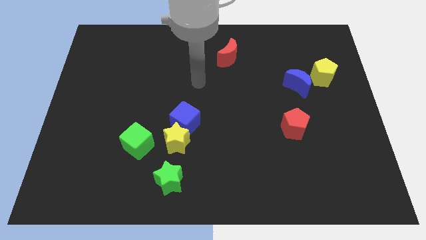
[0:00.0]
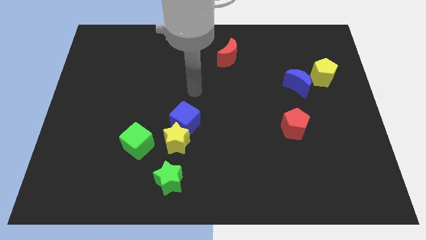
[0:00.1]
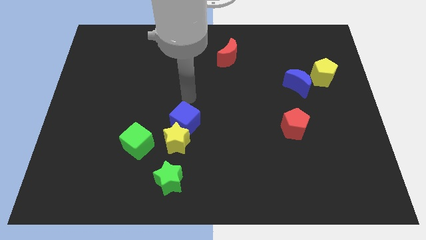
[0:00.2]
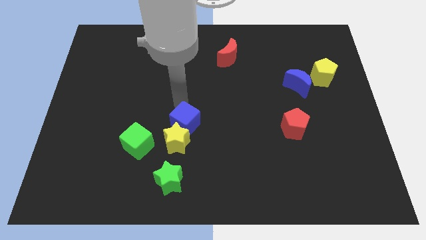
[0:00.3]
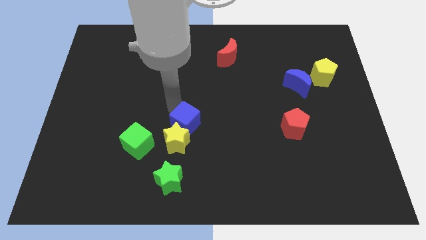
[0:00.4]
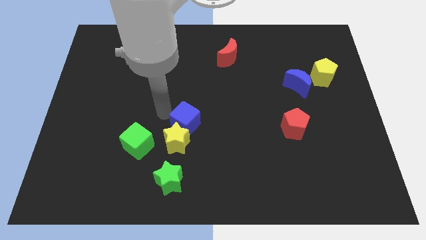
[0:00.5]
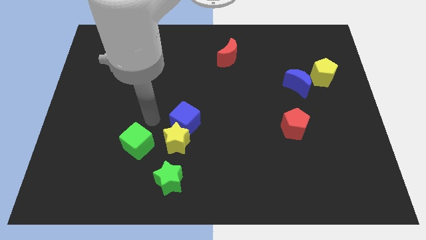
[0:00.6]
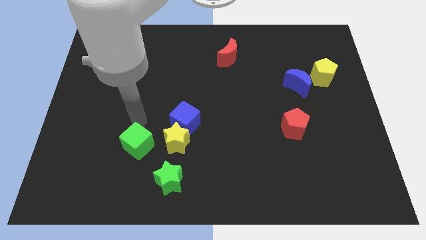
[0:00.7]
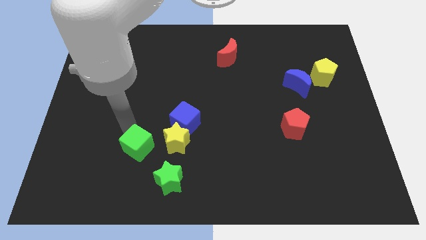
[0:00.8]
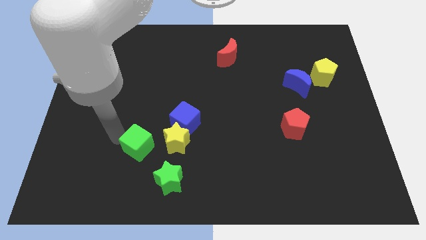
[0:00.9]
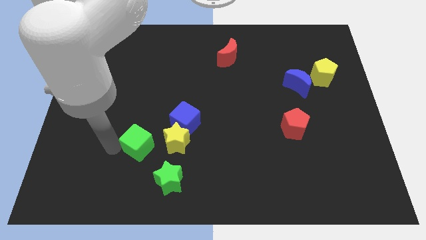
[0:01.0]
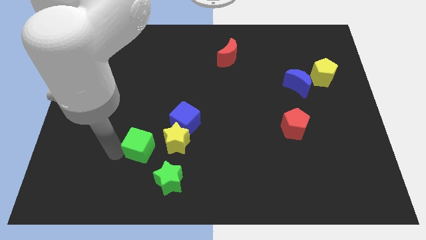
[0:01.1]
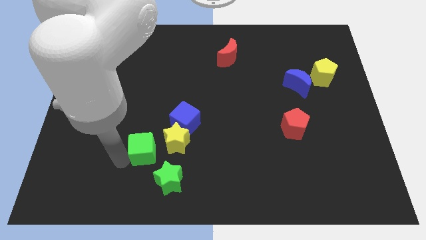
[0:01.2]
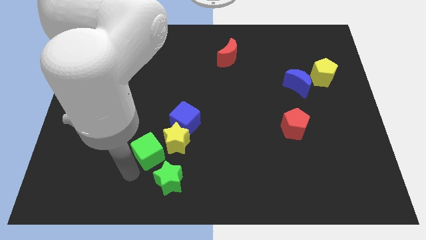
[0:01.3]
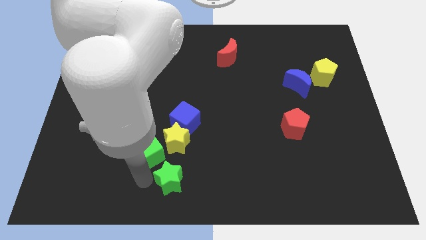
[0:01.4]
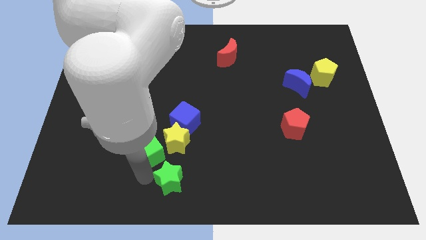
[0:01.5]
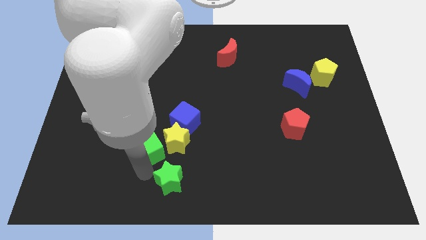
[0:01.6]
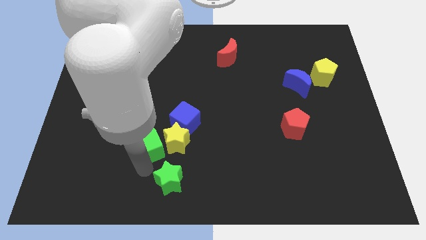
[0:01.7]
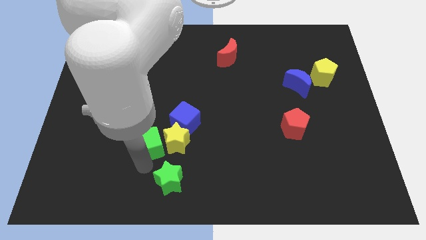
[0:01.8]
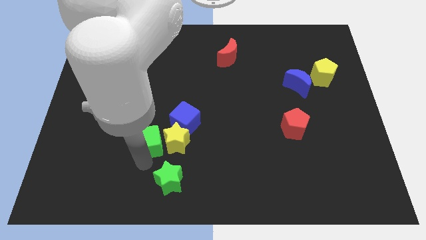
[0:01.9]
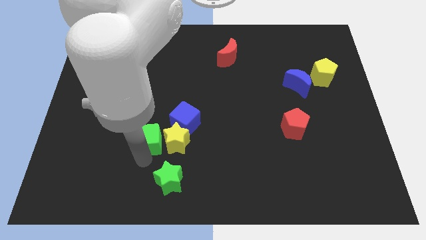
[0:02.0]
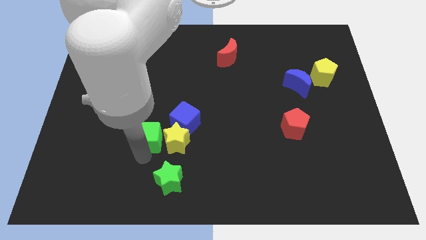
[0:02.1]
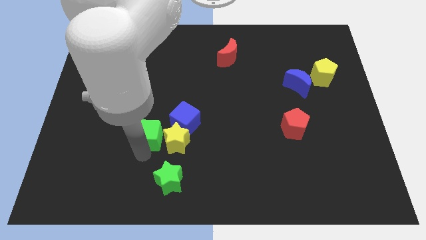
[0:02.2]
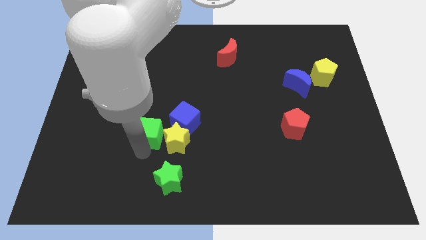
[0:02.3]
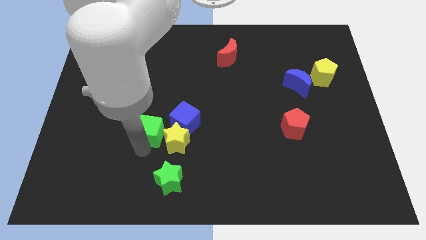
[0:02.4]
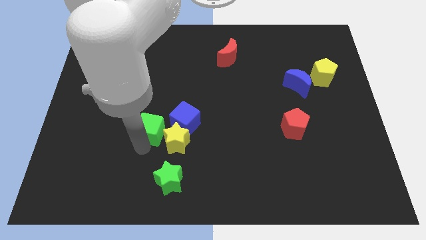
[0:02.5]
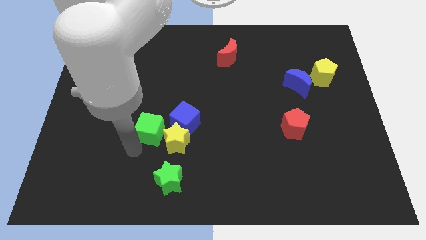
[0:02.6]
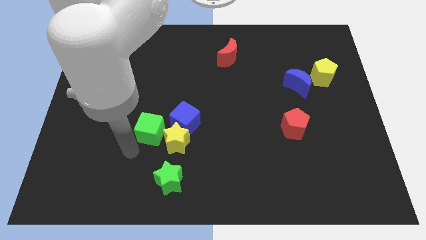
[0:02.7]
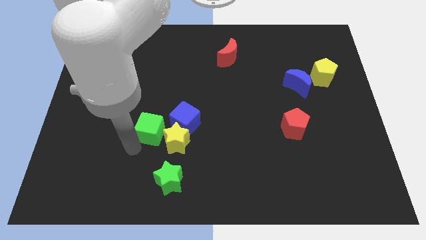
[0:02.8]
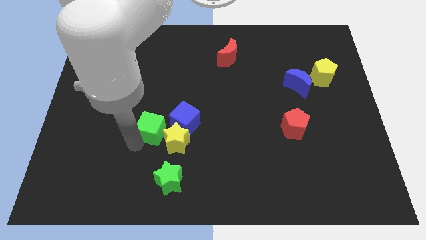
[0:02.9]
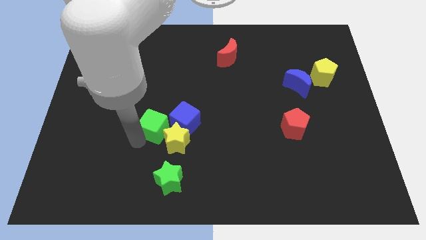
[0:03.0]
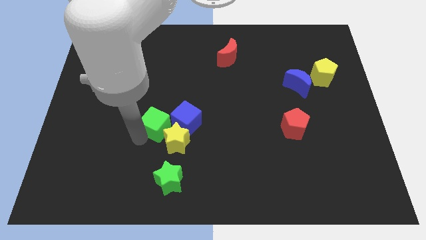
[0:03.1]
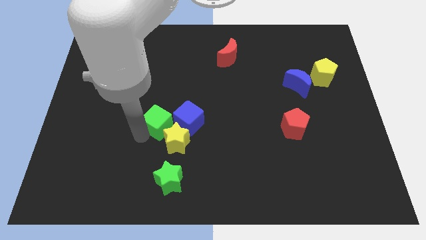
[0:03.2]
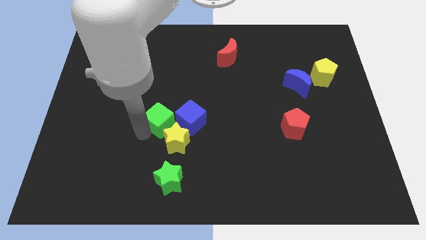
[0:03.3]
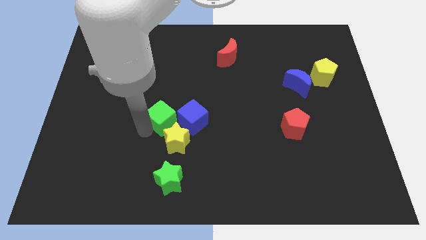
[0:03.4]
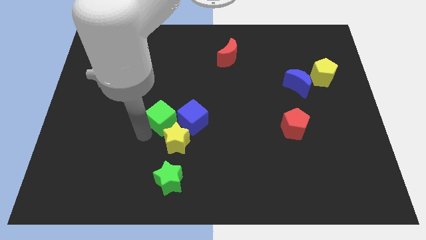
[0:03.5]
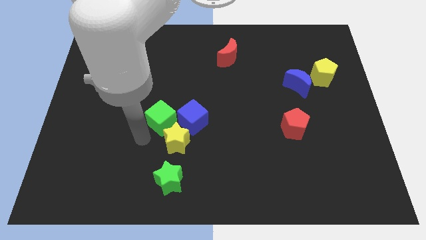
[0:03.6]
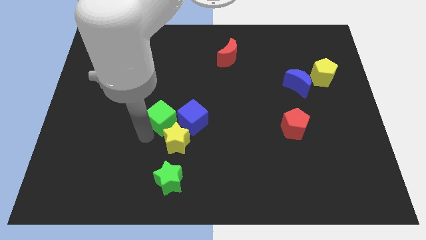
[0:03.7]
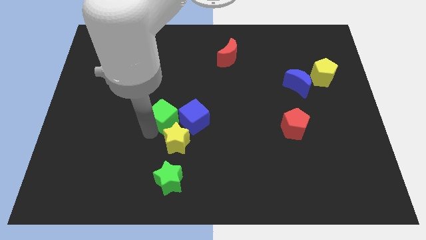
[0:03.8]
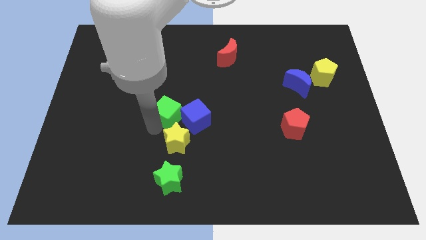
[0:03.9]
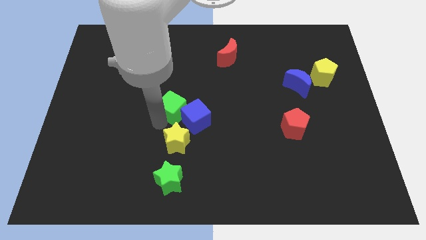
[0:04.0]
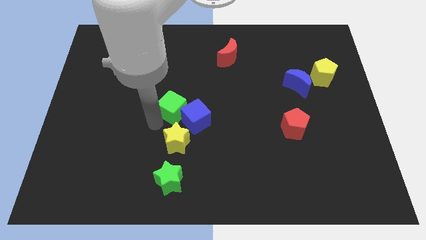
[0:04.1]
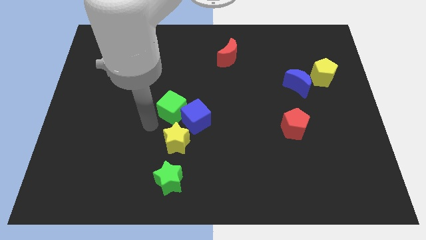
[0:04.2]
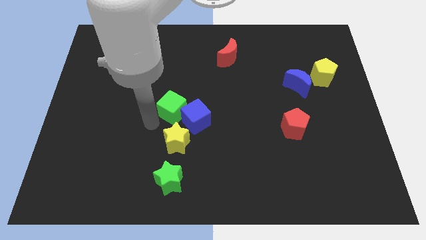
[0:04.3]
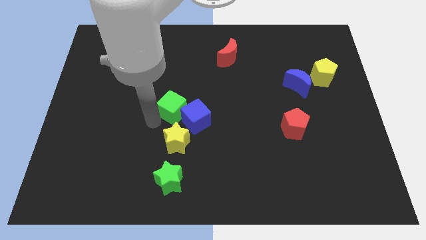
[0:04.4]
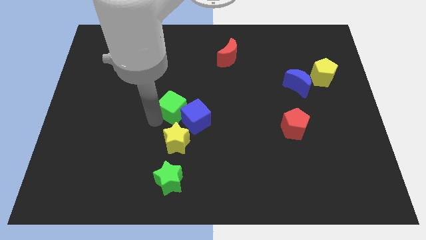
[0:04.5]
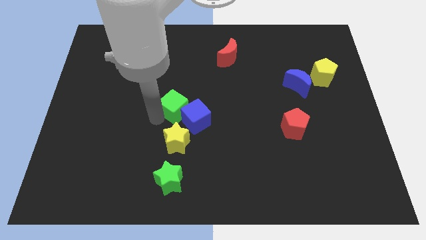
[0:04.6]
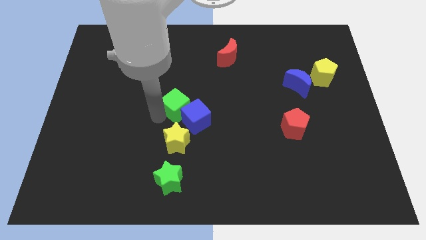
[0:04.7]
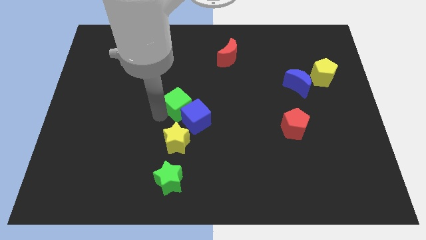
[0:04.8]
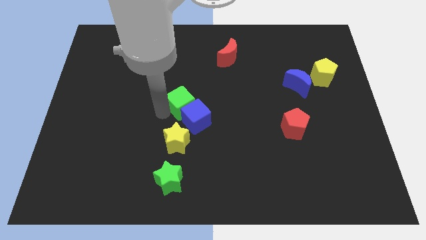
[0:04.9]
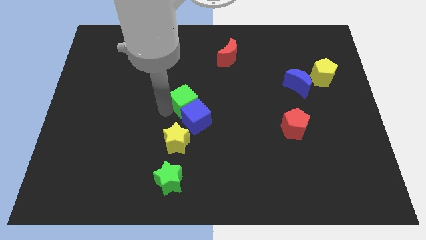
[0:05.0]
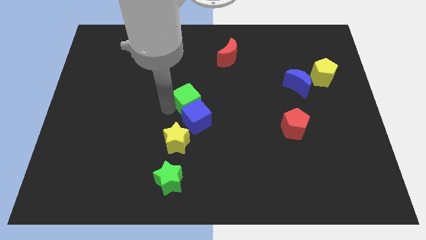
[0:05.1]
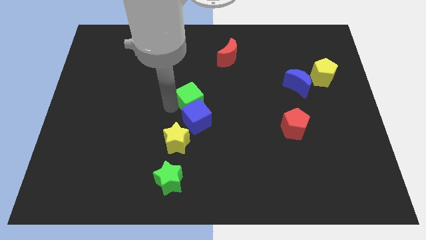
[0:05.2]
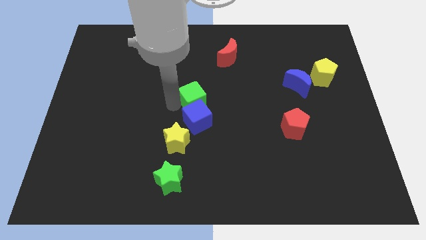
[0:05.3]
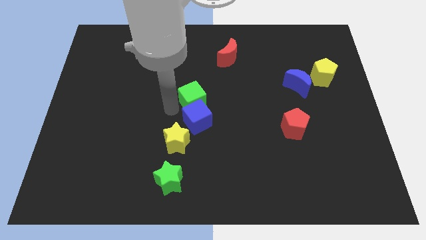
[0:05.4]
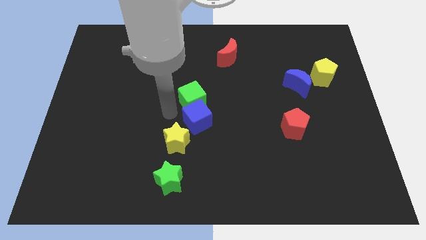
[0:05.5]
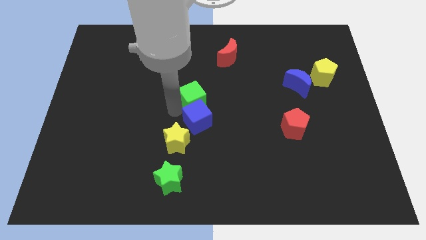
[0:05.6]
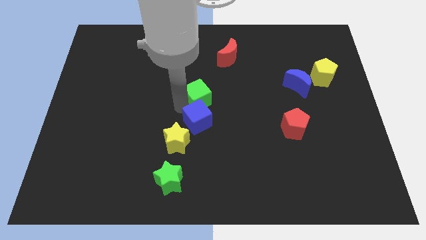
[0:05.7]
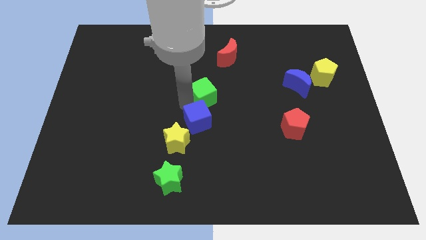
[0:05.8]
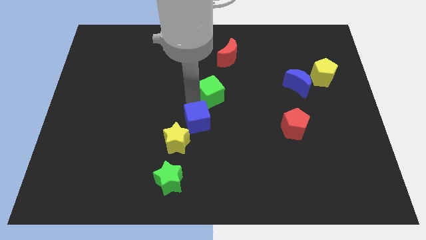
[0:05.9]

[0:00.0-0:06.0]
move the green cube up and right diagonally

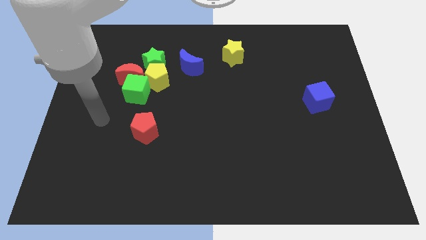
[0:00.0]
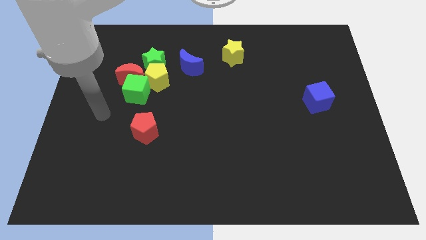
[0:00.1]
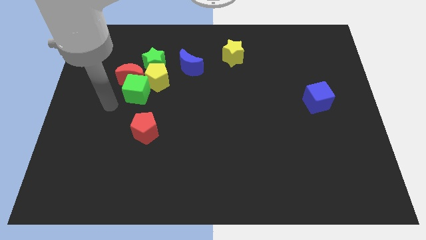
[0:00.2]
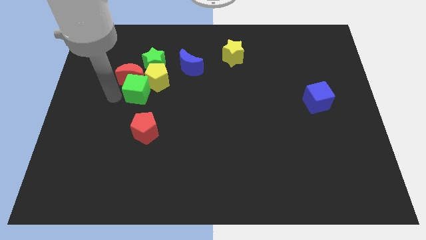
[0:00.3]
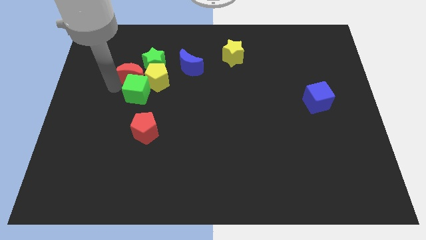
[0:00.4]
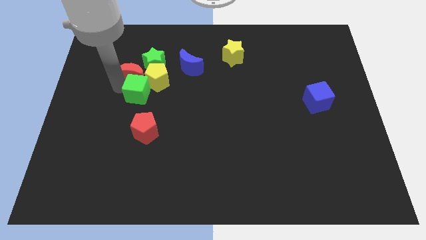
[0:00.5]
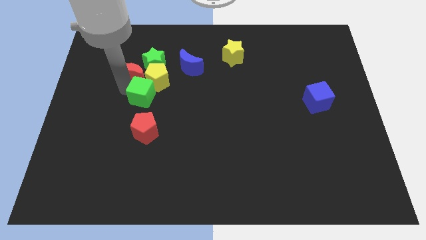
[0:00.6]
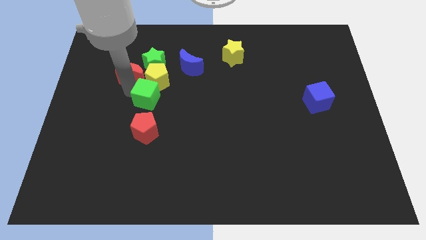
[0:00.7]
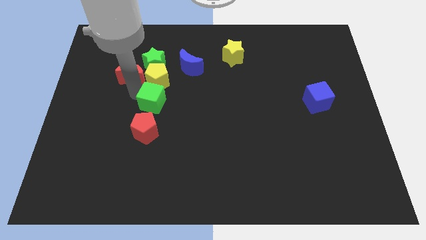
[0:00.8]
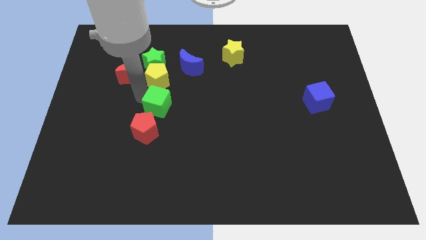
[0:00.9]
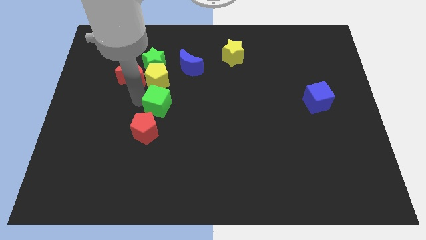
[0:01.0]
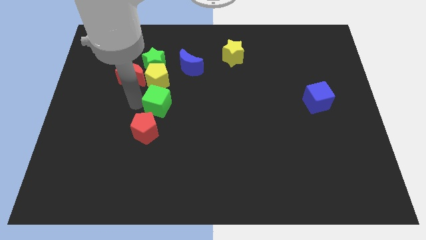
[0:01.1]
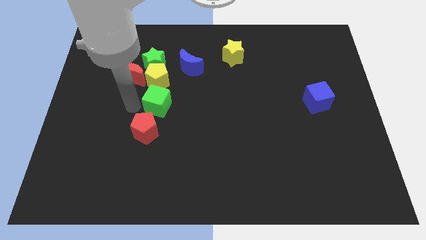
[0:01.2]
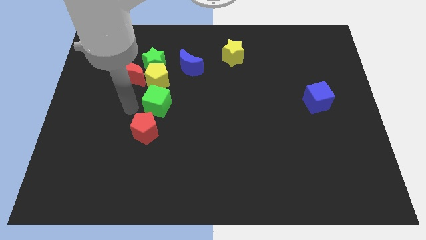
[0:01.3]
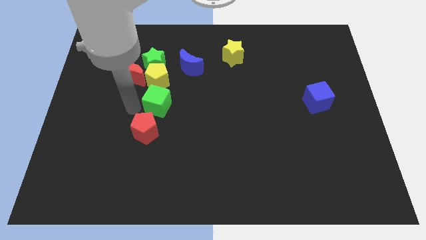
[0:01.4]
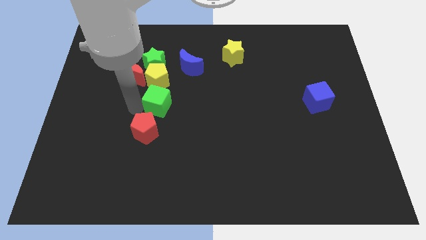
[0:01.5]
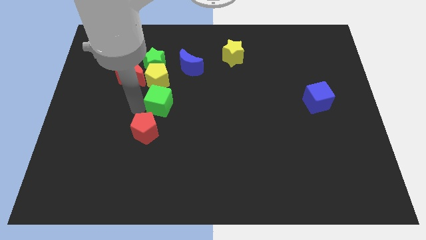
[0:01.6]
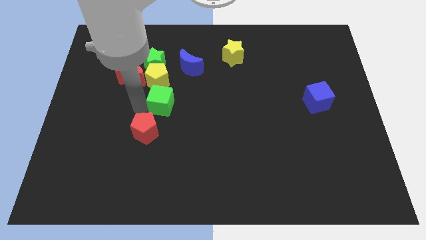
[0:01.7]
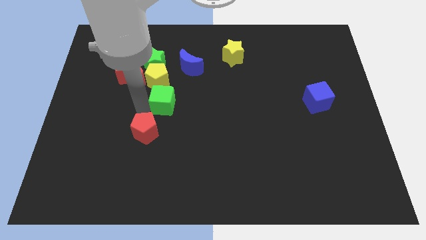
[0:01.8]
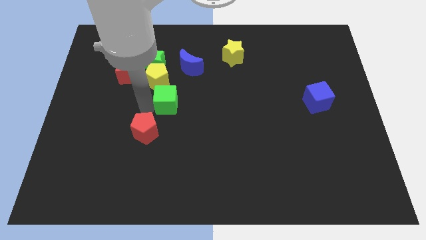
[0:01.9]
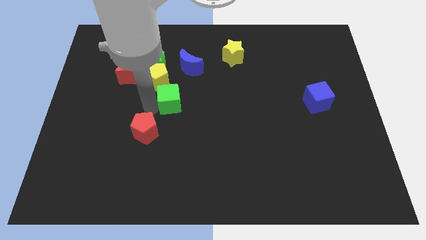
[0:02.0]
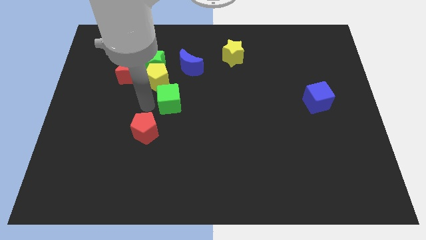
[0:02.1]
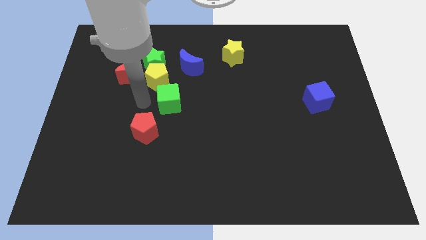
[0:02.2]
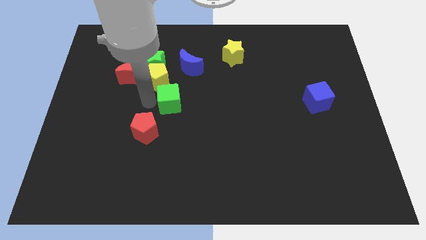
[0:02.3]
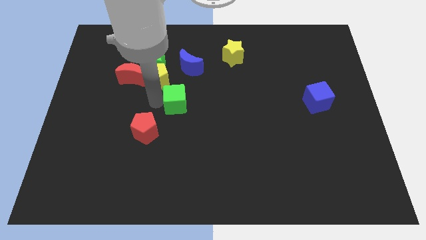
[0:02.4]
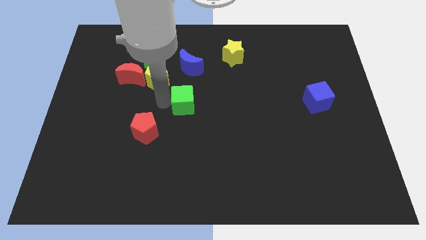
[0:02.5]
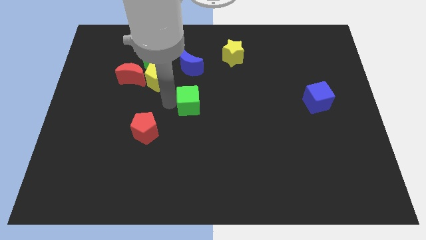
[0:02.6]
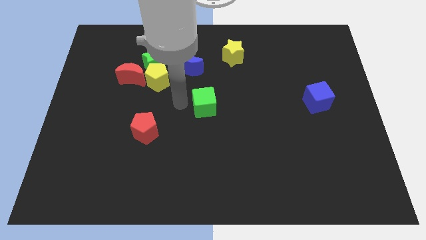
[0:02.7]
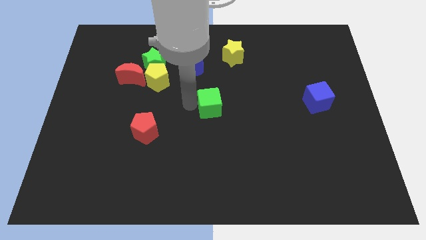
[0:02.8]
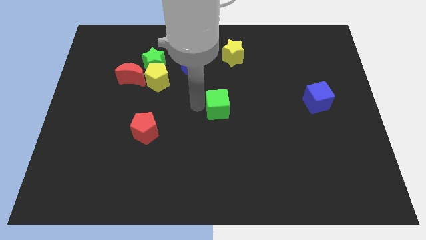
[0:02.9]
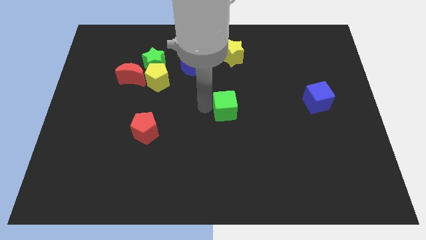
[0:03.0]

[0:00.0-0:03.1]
move the green cube right
